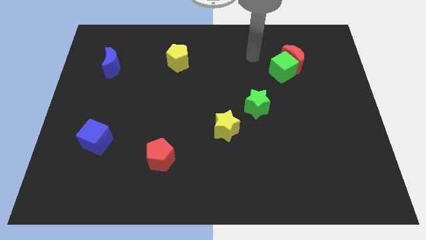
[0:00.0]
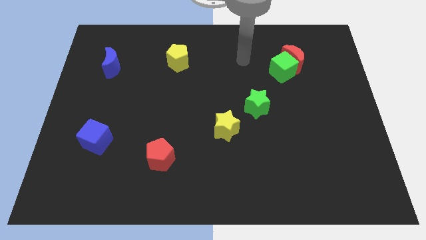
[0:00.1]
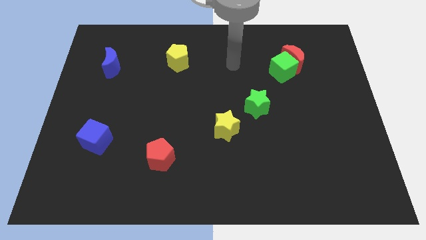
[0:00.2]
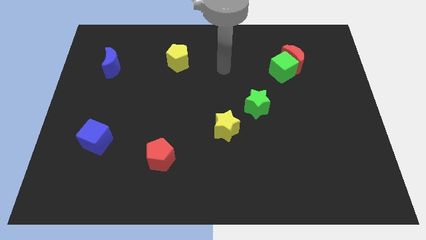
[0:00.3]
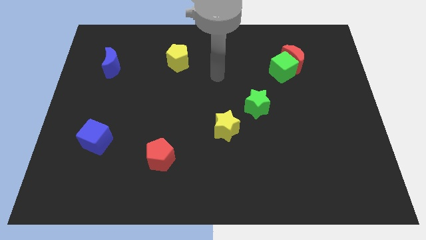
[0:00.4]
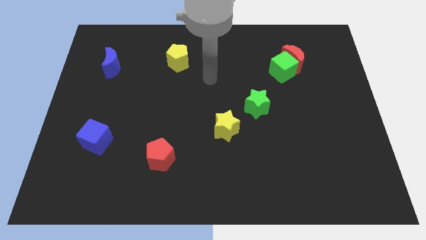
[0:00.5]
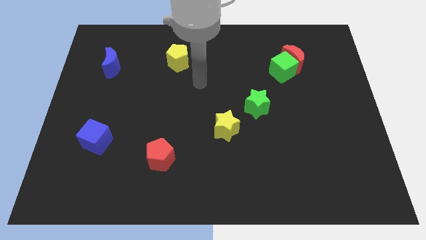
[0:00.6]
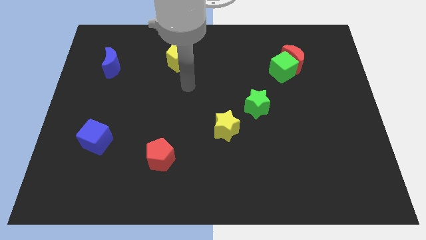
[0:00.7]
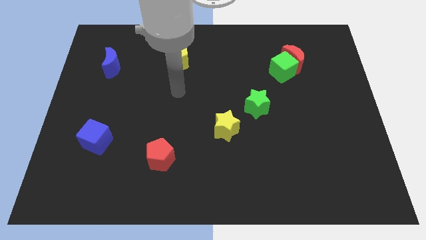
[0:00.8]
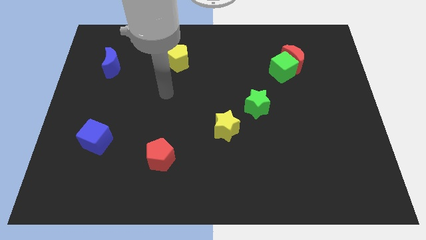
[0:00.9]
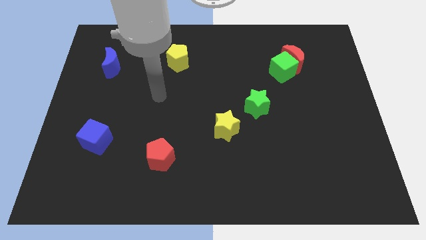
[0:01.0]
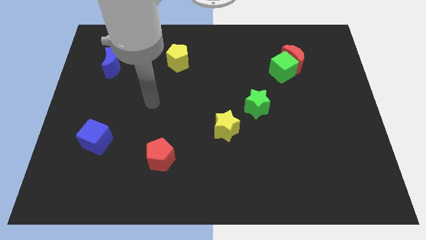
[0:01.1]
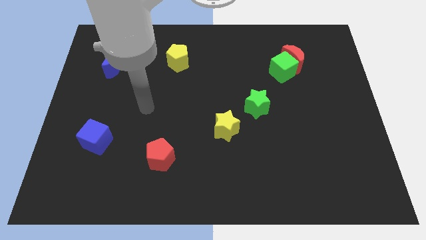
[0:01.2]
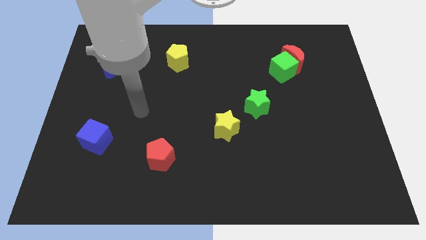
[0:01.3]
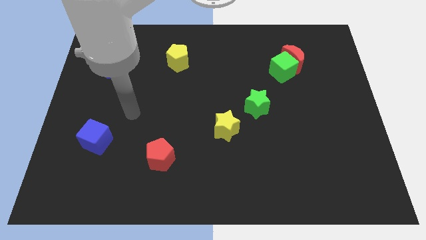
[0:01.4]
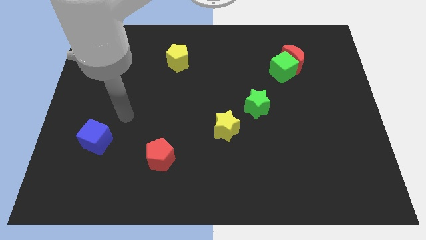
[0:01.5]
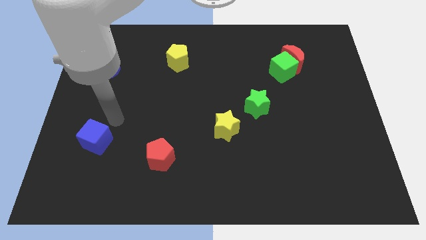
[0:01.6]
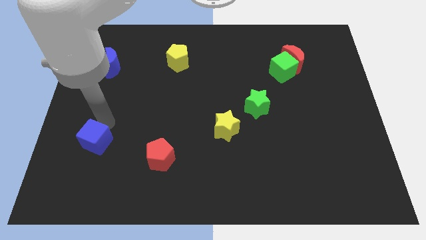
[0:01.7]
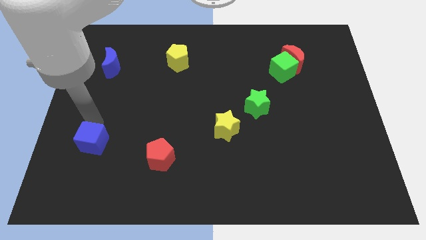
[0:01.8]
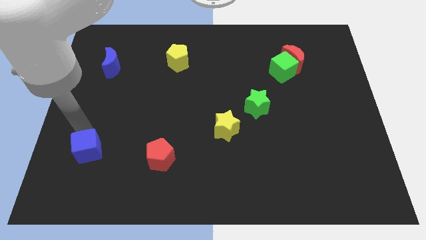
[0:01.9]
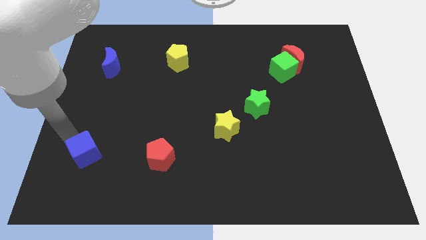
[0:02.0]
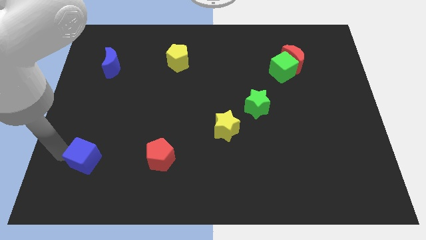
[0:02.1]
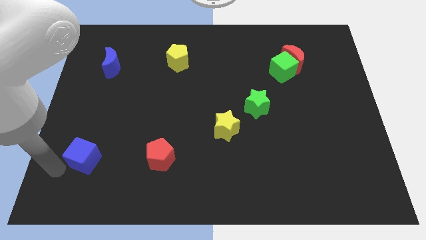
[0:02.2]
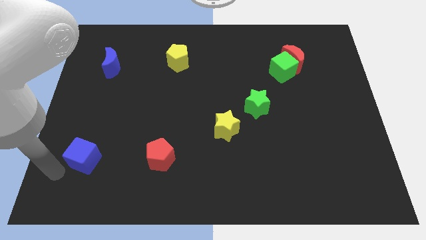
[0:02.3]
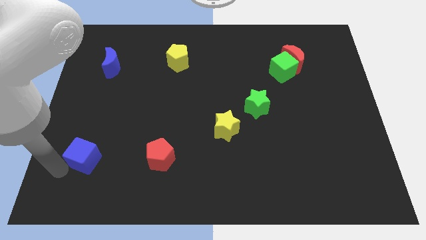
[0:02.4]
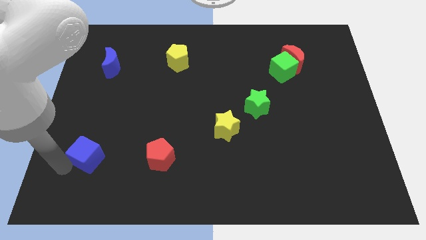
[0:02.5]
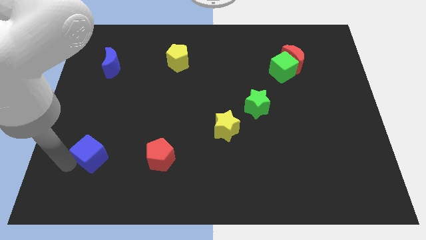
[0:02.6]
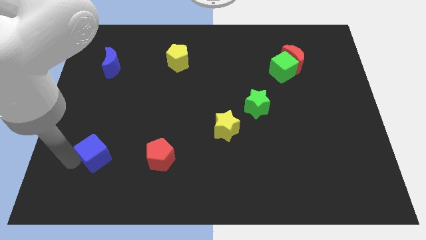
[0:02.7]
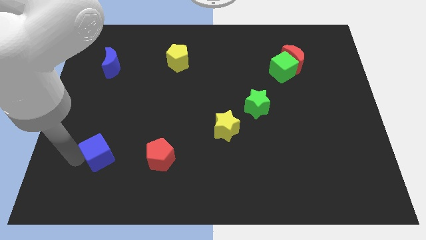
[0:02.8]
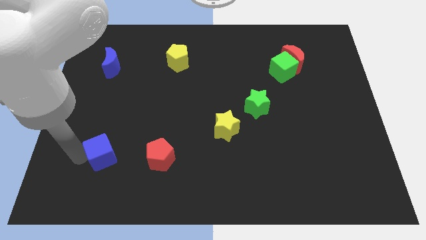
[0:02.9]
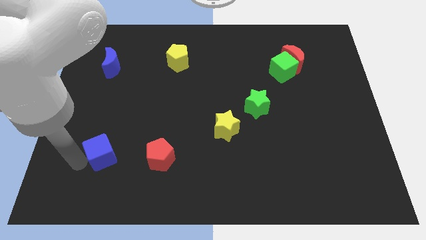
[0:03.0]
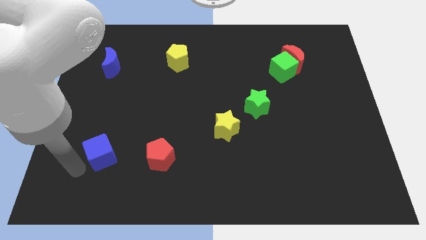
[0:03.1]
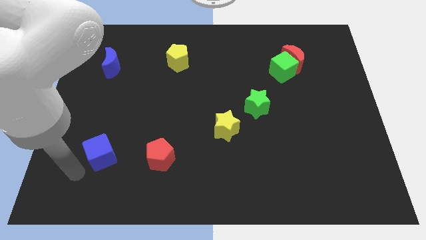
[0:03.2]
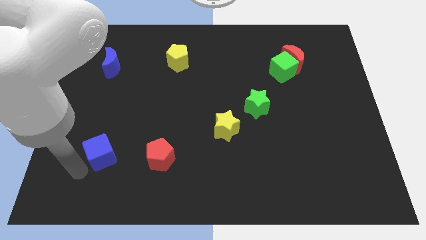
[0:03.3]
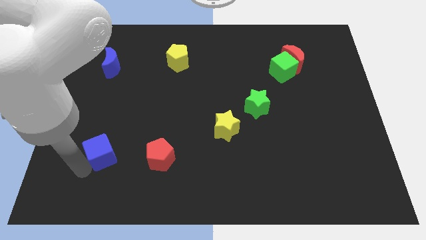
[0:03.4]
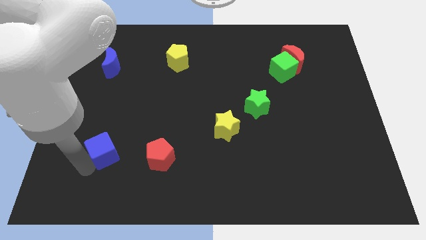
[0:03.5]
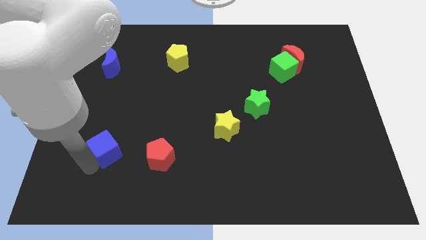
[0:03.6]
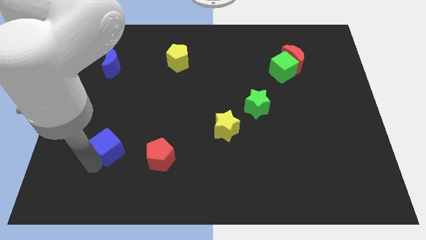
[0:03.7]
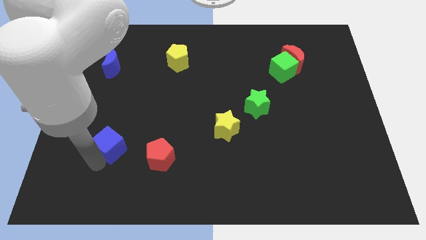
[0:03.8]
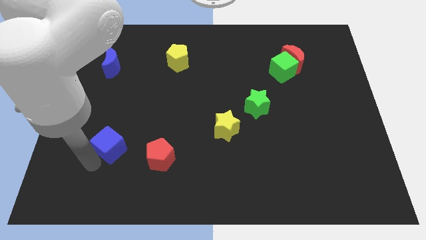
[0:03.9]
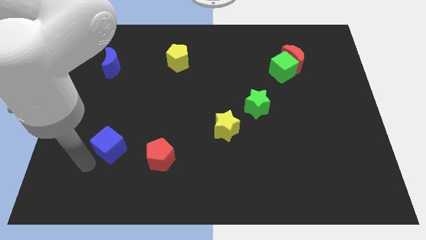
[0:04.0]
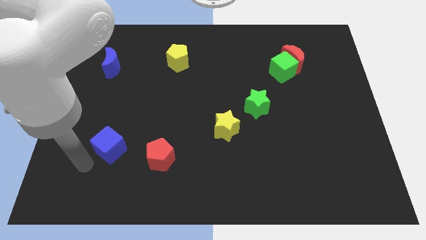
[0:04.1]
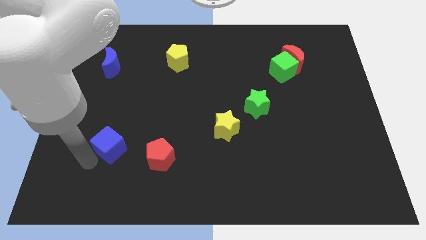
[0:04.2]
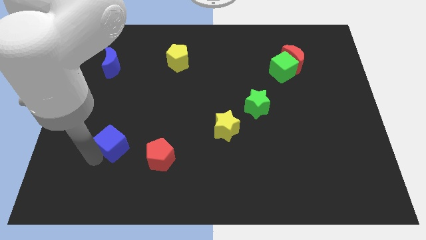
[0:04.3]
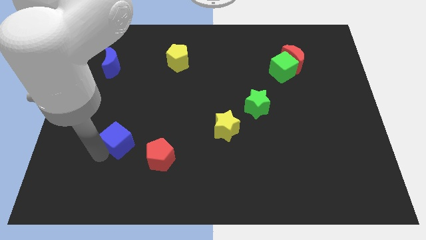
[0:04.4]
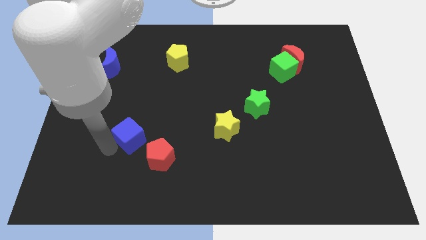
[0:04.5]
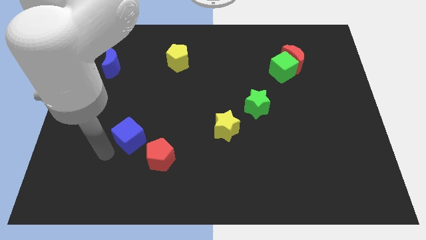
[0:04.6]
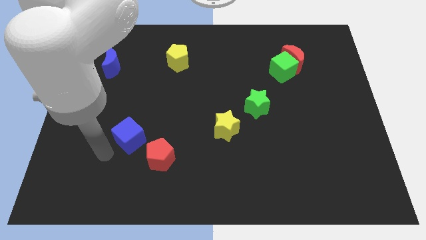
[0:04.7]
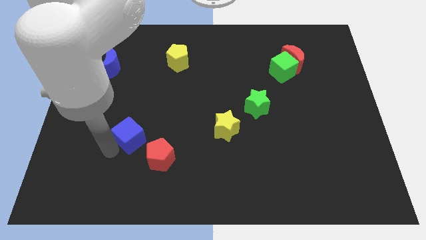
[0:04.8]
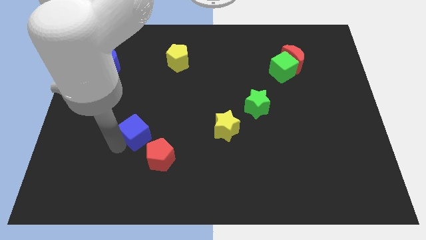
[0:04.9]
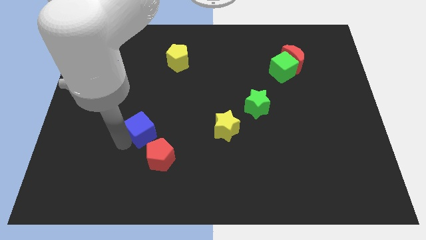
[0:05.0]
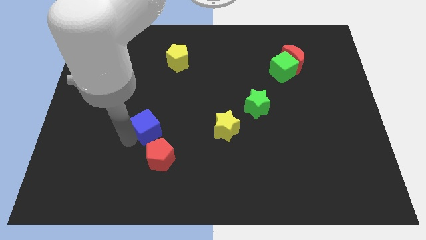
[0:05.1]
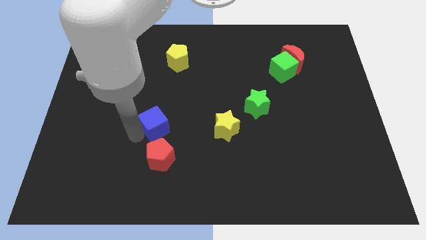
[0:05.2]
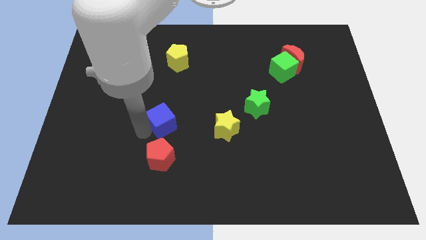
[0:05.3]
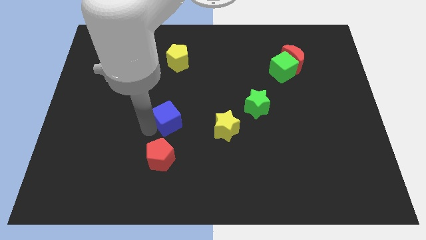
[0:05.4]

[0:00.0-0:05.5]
slide the blue cube to the middle
